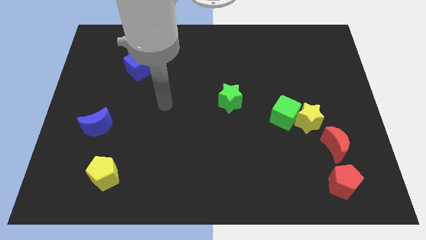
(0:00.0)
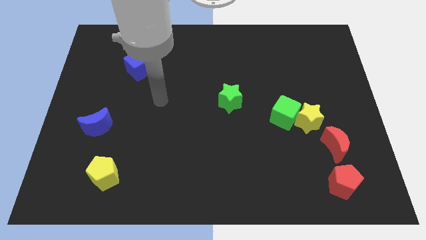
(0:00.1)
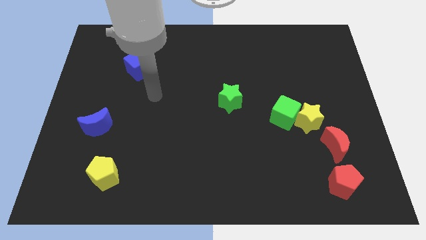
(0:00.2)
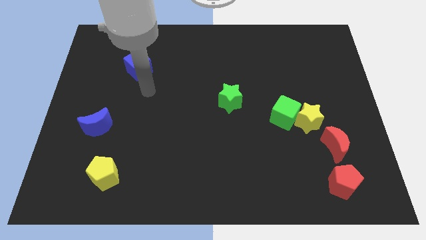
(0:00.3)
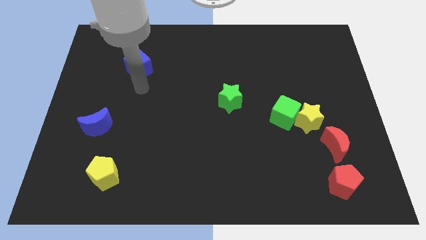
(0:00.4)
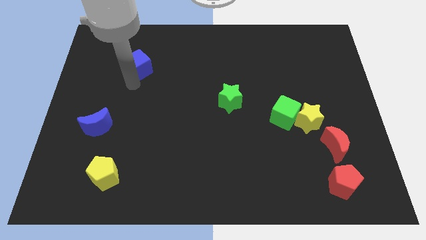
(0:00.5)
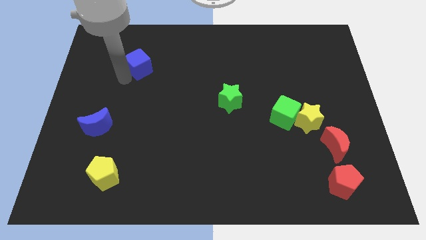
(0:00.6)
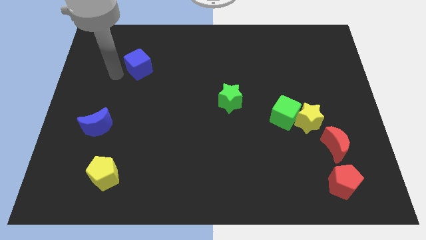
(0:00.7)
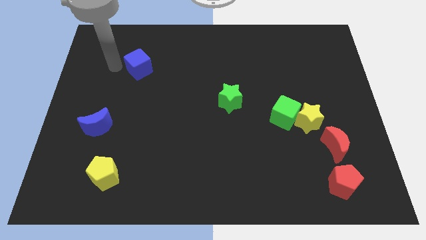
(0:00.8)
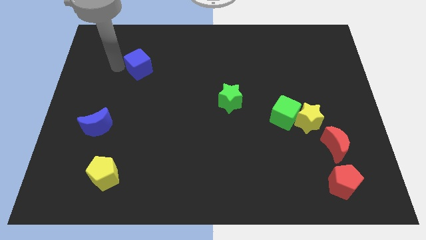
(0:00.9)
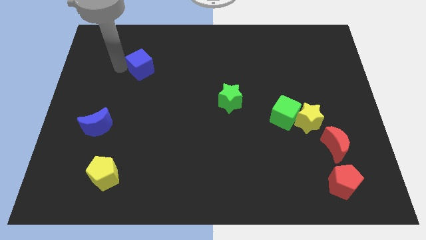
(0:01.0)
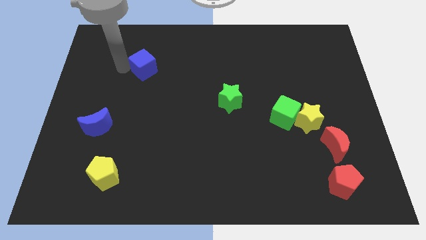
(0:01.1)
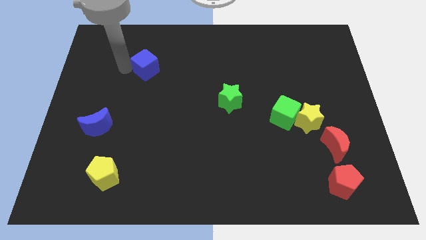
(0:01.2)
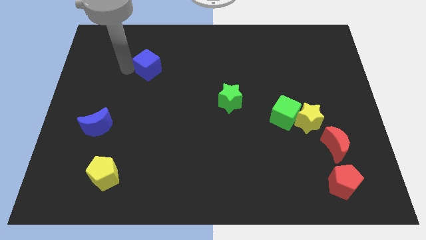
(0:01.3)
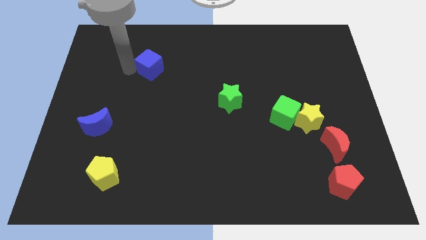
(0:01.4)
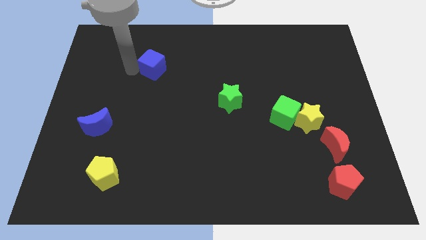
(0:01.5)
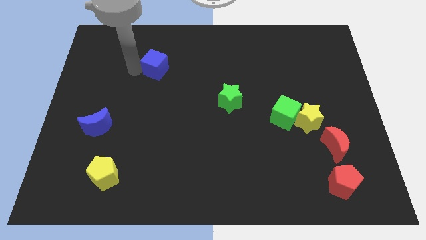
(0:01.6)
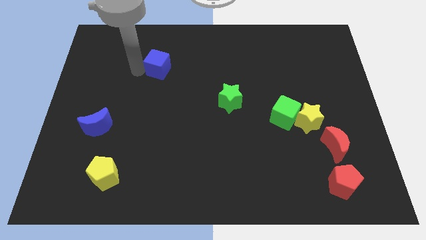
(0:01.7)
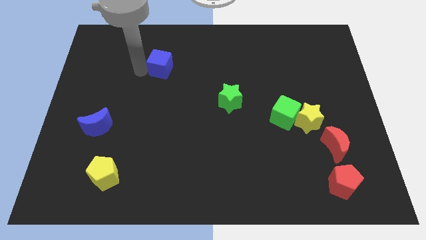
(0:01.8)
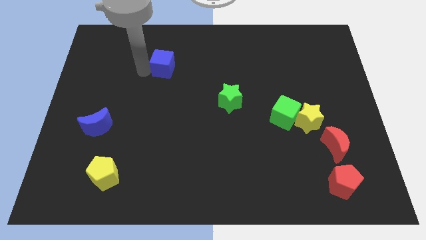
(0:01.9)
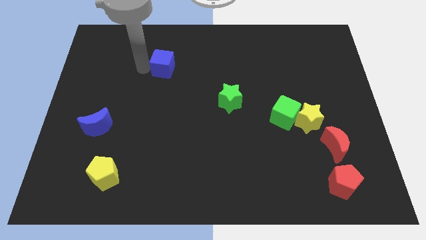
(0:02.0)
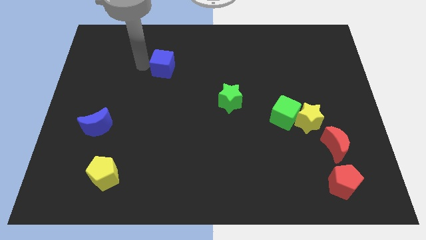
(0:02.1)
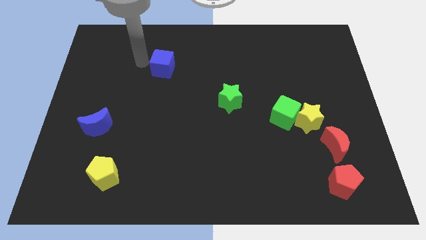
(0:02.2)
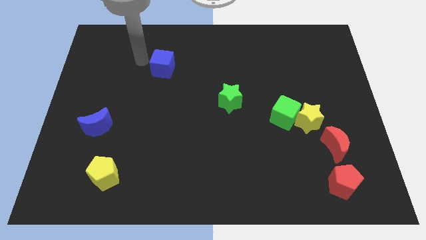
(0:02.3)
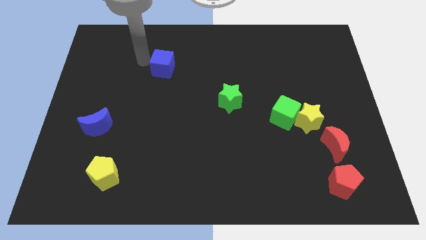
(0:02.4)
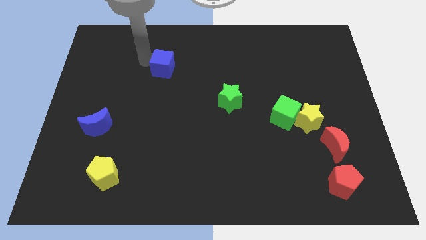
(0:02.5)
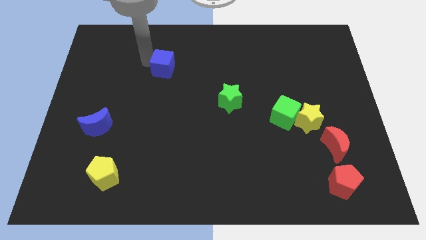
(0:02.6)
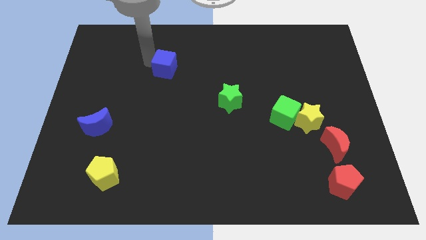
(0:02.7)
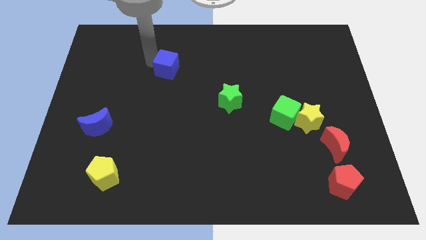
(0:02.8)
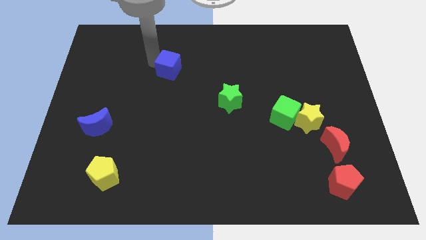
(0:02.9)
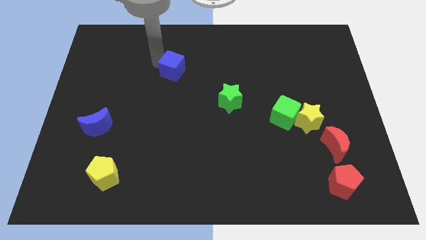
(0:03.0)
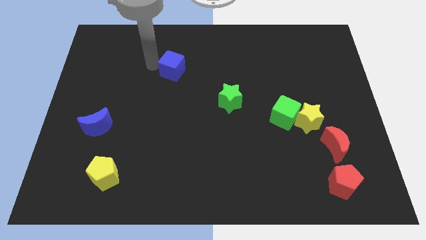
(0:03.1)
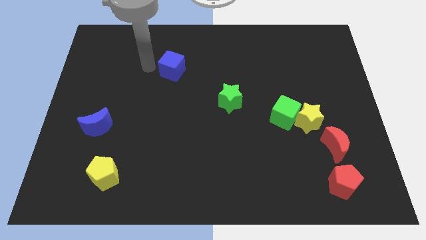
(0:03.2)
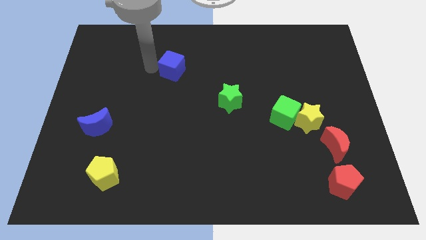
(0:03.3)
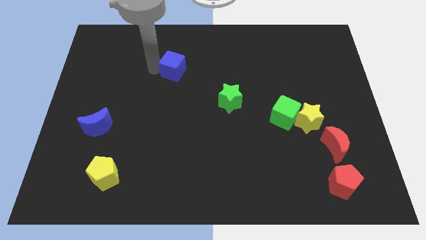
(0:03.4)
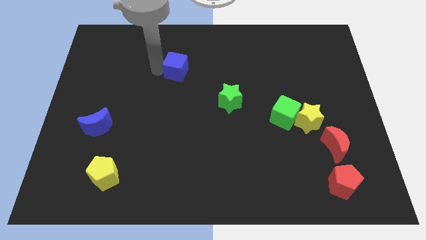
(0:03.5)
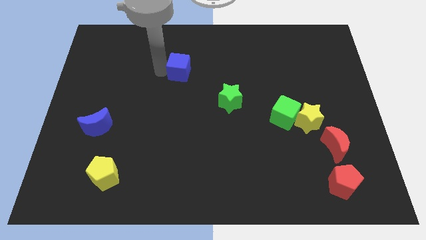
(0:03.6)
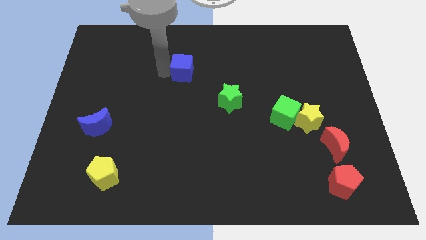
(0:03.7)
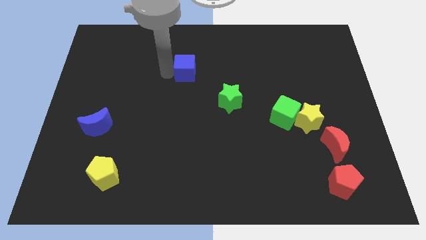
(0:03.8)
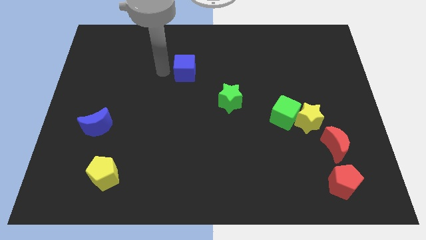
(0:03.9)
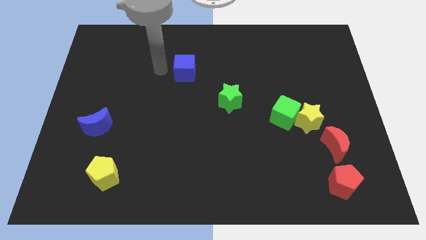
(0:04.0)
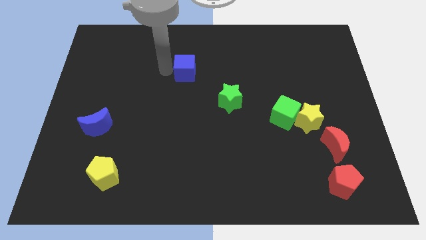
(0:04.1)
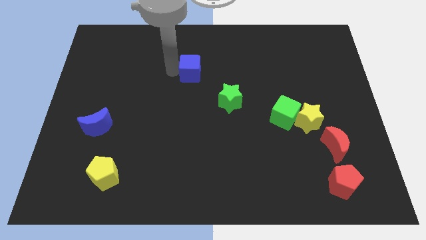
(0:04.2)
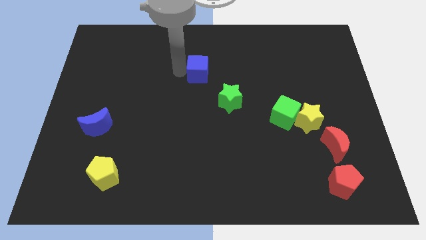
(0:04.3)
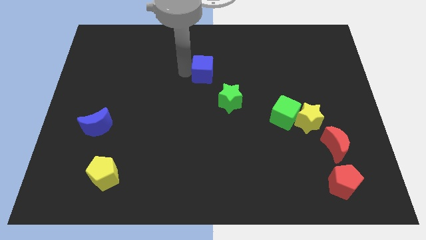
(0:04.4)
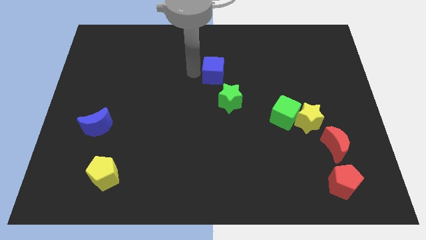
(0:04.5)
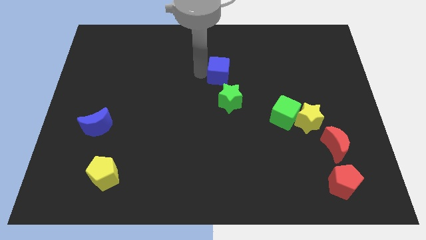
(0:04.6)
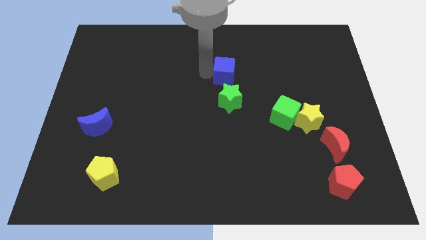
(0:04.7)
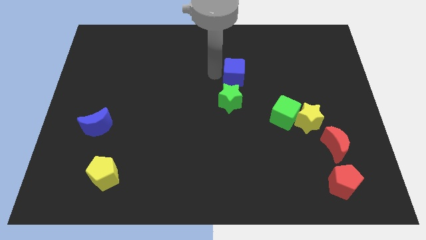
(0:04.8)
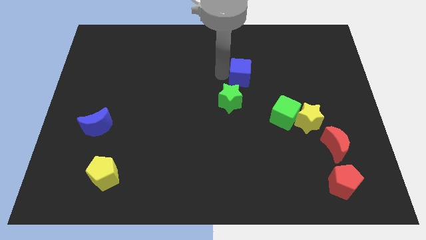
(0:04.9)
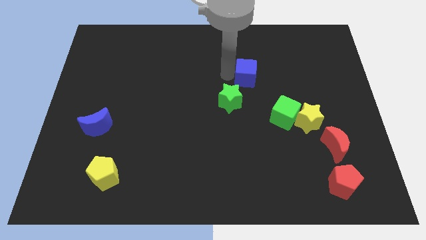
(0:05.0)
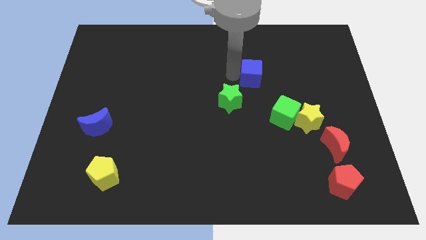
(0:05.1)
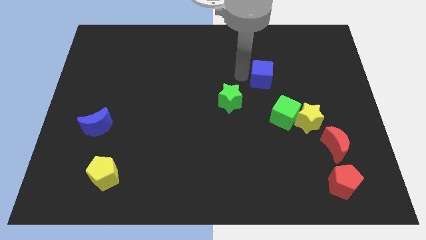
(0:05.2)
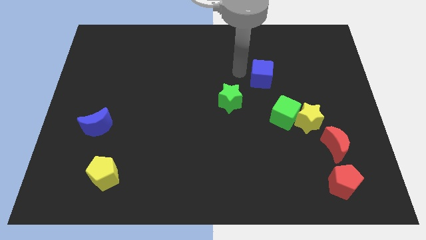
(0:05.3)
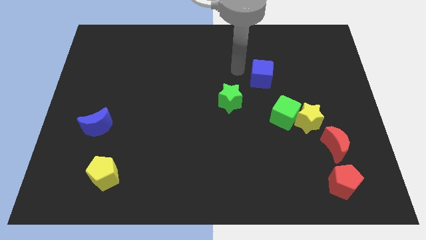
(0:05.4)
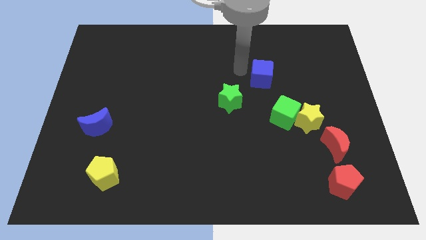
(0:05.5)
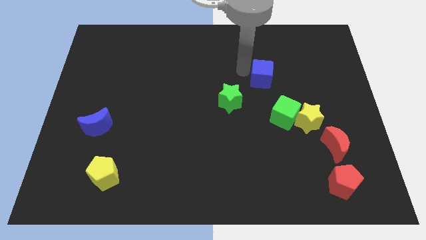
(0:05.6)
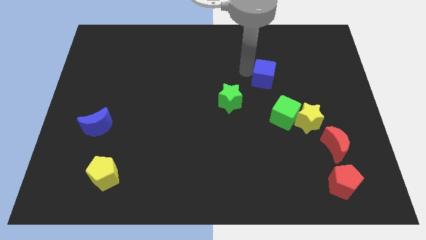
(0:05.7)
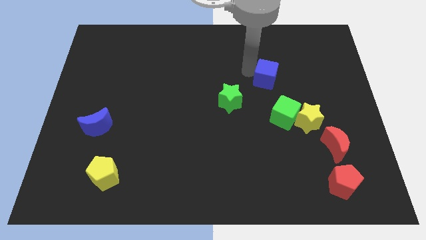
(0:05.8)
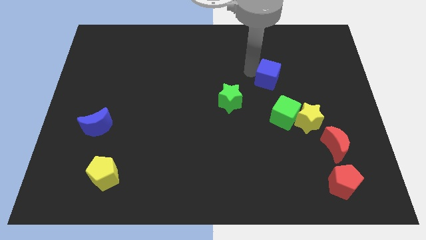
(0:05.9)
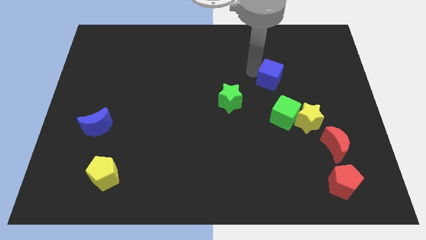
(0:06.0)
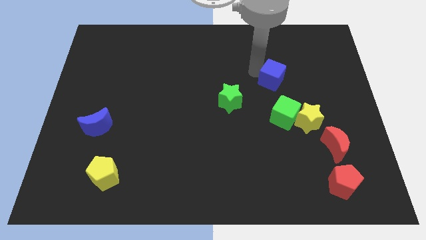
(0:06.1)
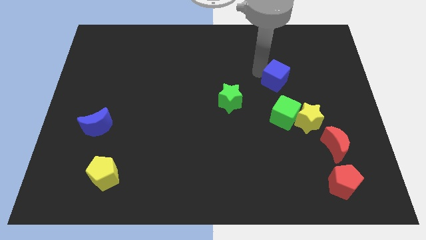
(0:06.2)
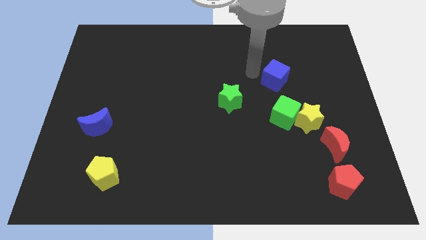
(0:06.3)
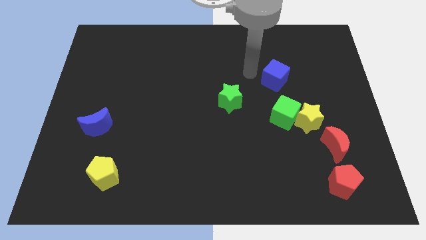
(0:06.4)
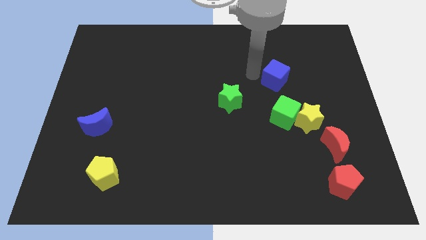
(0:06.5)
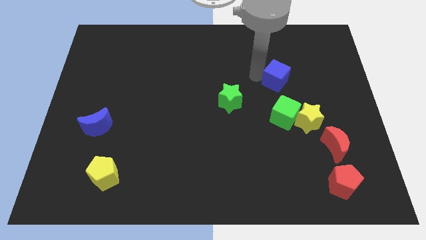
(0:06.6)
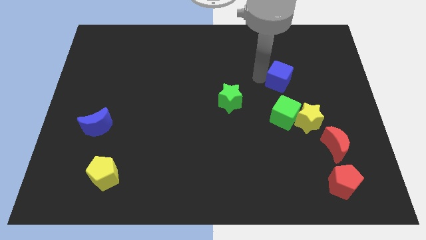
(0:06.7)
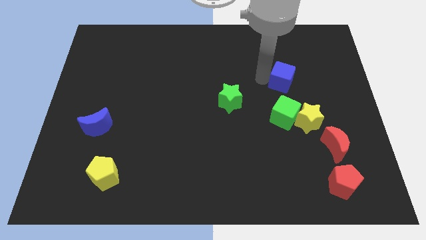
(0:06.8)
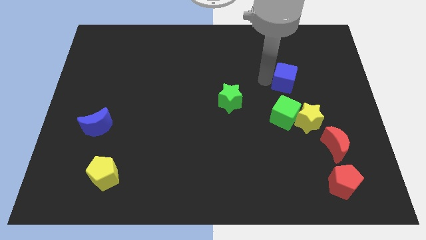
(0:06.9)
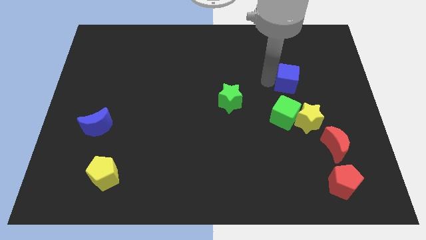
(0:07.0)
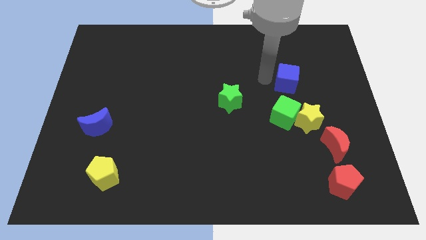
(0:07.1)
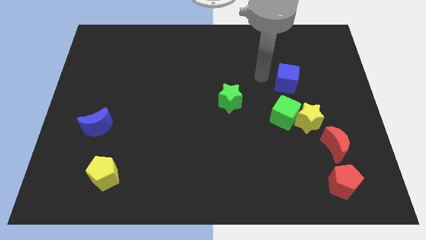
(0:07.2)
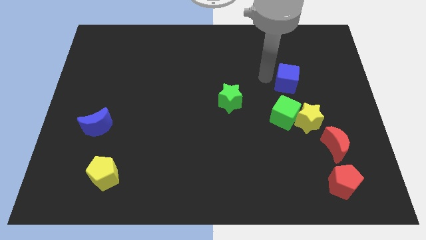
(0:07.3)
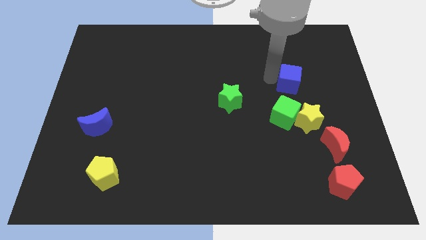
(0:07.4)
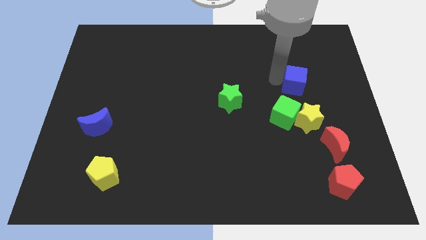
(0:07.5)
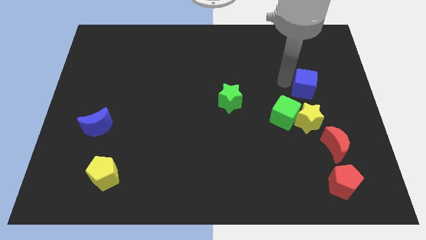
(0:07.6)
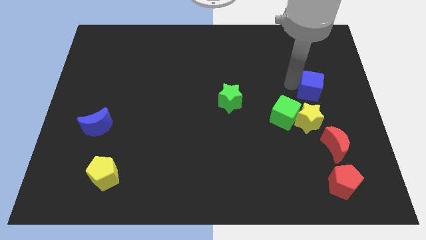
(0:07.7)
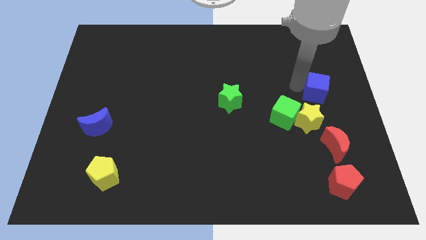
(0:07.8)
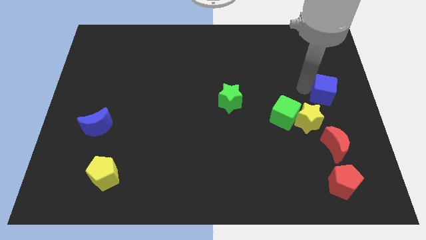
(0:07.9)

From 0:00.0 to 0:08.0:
push the blue cube to the right side of the board
